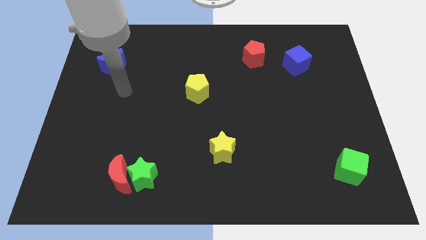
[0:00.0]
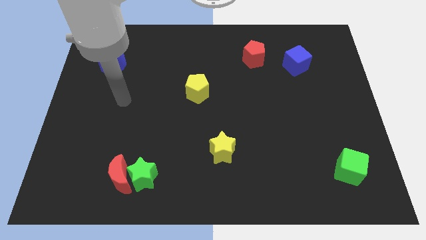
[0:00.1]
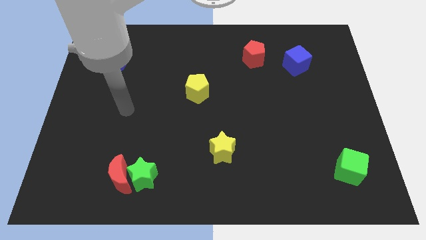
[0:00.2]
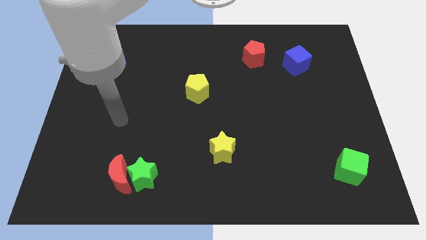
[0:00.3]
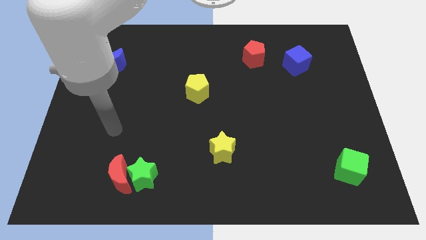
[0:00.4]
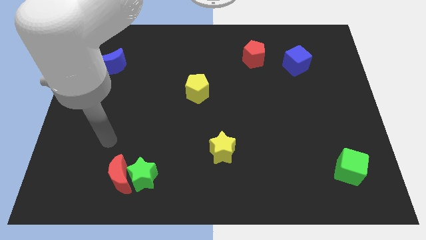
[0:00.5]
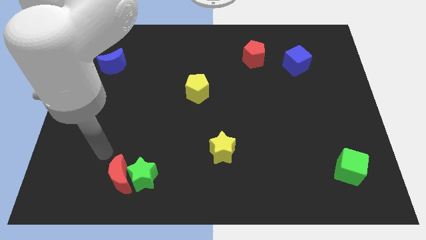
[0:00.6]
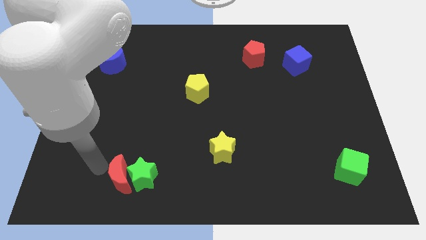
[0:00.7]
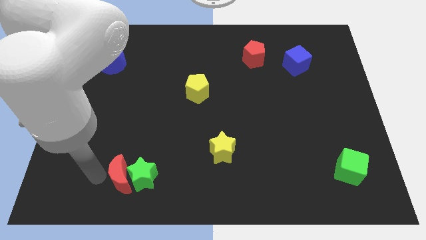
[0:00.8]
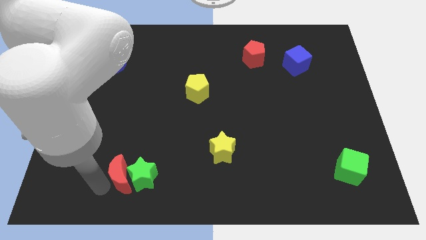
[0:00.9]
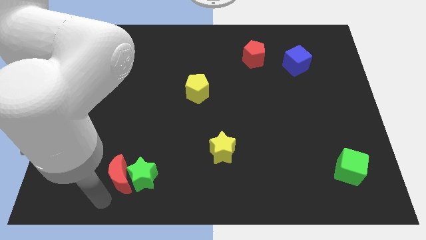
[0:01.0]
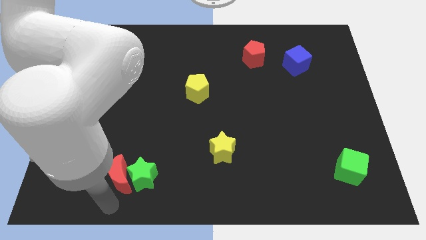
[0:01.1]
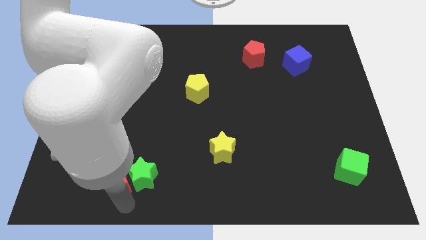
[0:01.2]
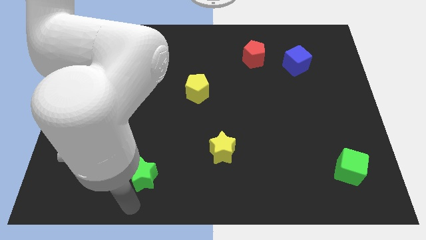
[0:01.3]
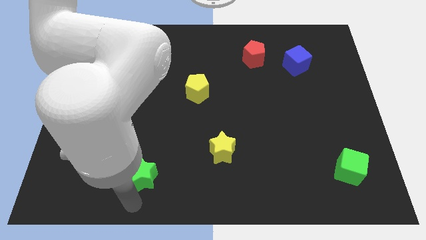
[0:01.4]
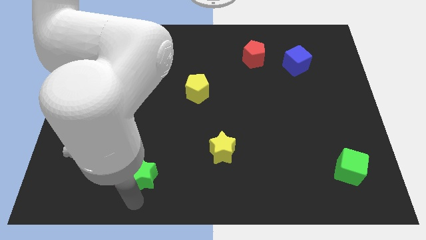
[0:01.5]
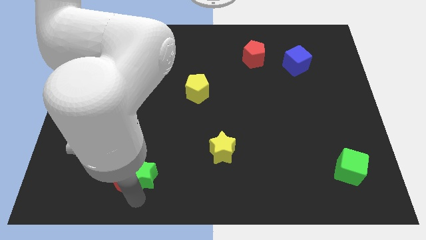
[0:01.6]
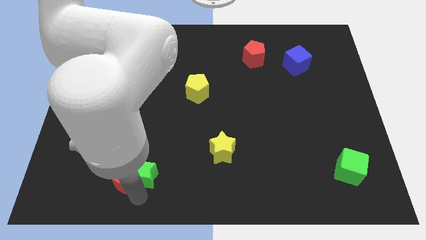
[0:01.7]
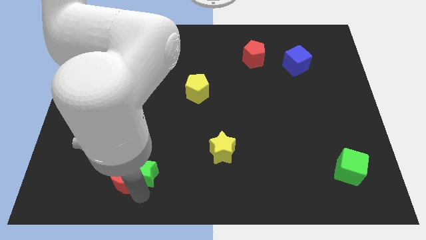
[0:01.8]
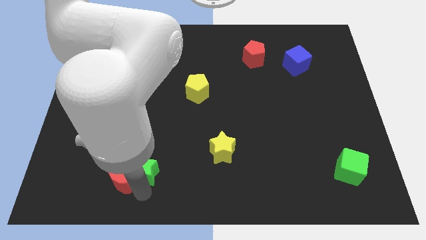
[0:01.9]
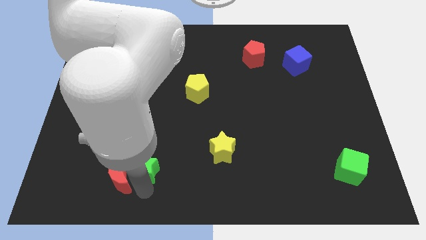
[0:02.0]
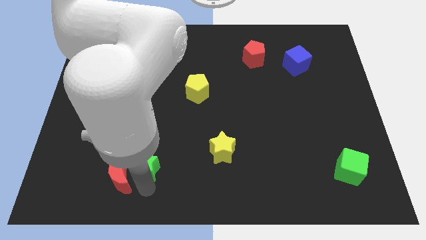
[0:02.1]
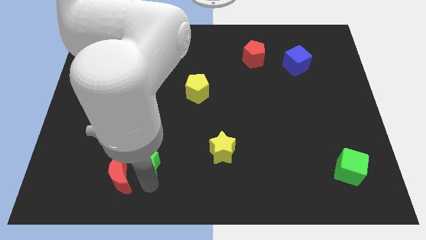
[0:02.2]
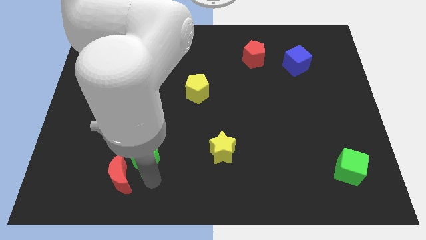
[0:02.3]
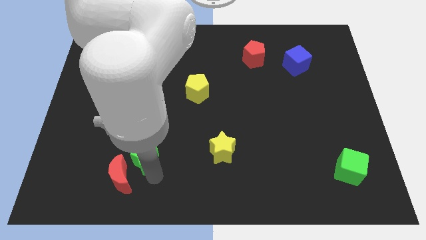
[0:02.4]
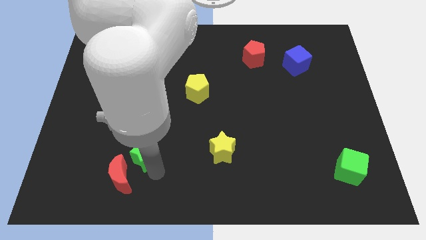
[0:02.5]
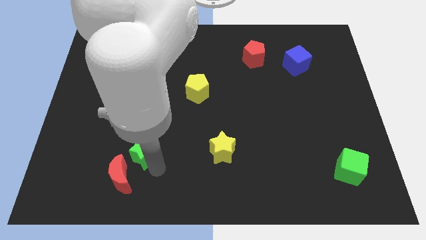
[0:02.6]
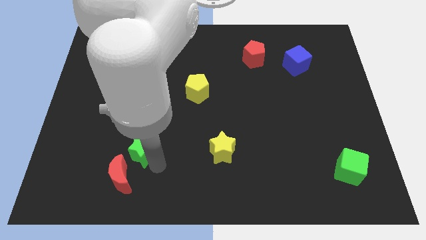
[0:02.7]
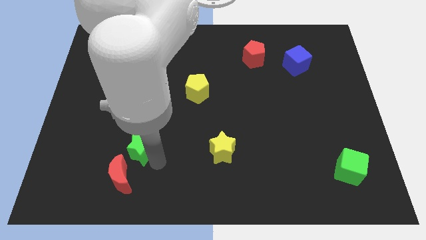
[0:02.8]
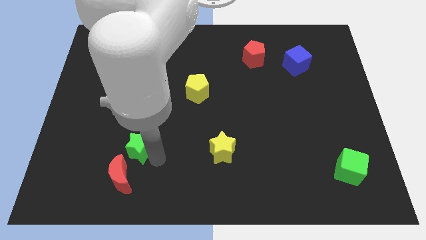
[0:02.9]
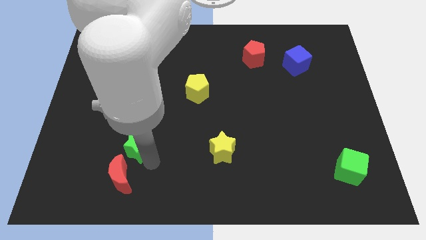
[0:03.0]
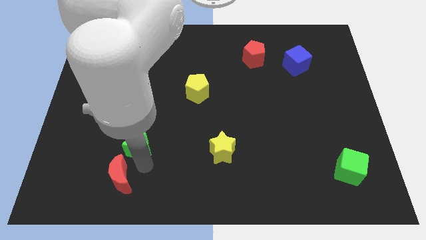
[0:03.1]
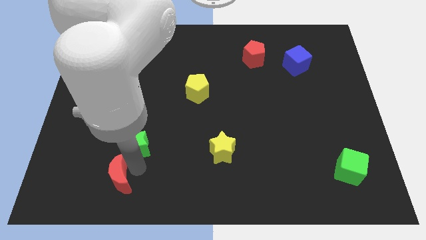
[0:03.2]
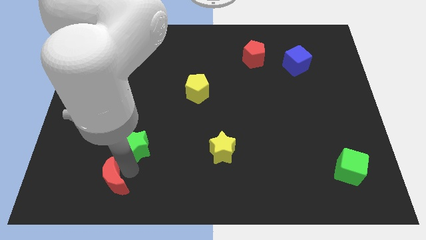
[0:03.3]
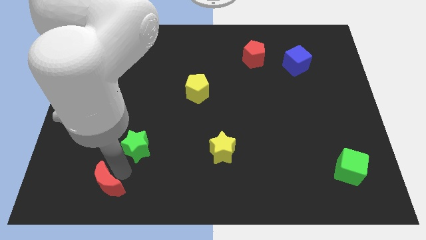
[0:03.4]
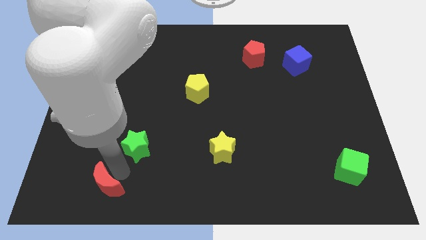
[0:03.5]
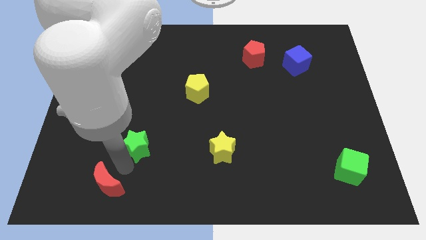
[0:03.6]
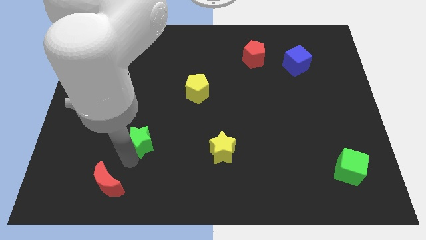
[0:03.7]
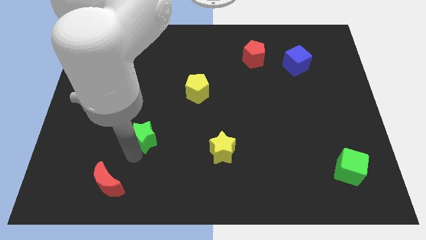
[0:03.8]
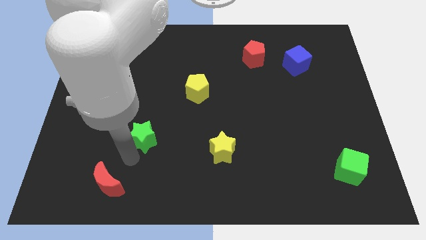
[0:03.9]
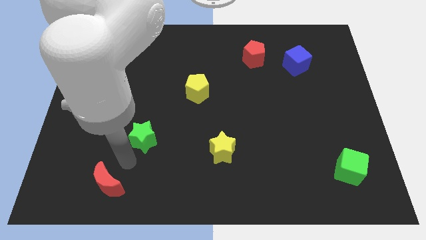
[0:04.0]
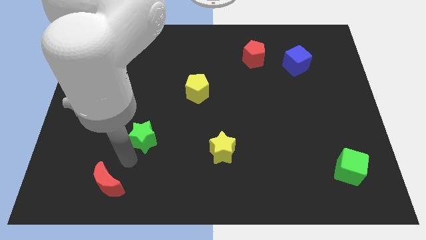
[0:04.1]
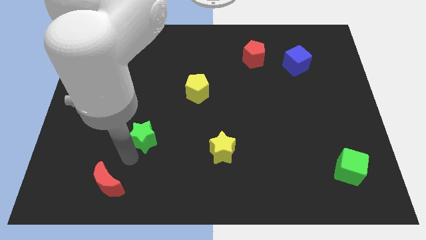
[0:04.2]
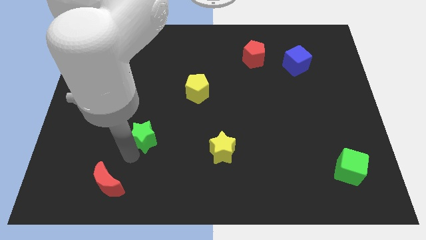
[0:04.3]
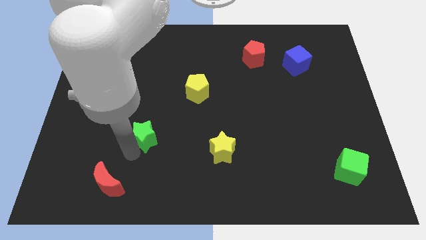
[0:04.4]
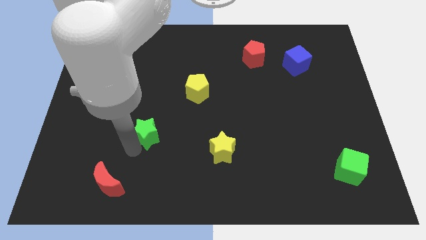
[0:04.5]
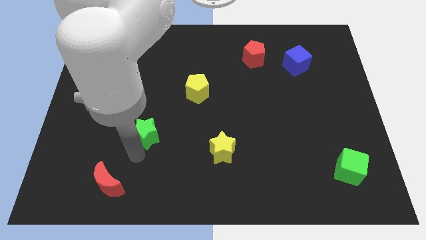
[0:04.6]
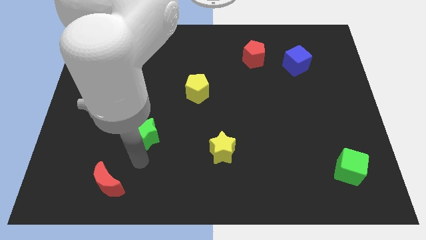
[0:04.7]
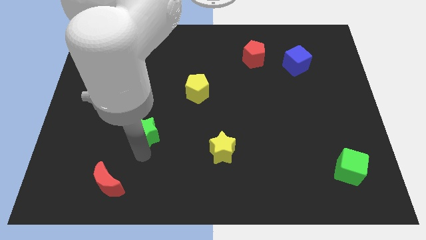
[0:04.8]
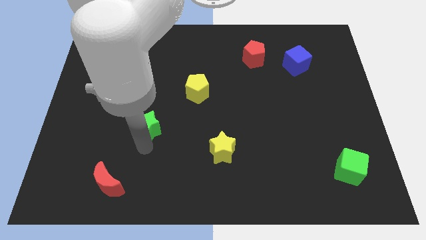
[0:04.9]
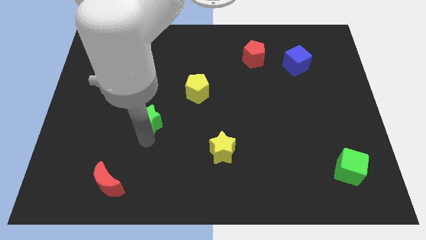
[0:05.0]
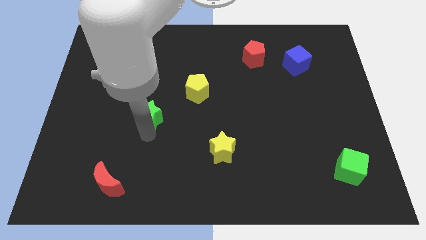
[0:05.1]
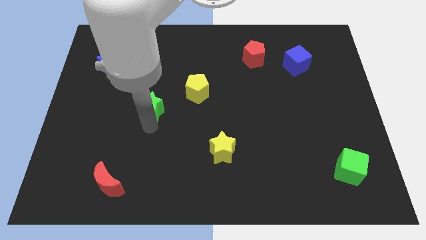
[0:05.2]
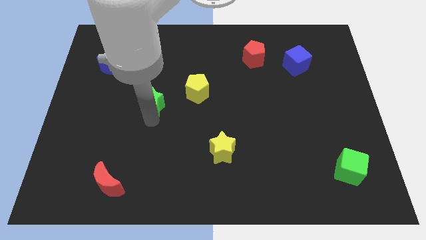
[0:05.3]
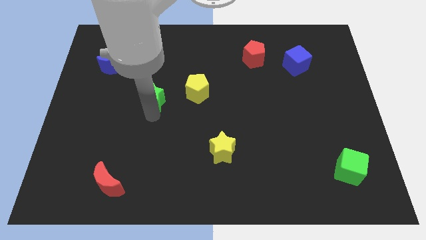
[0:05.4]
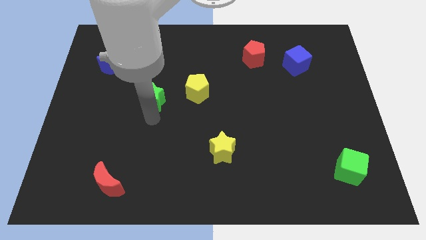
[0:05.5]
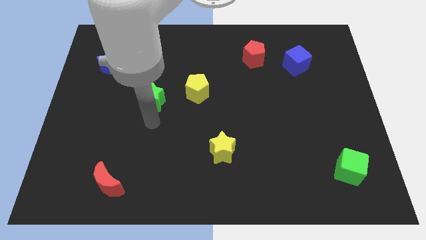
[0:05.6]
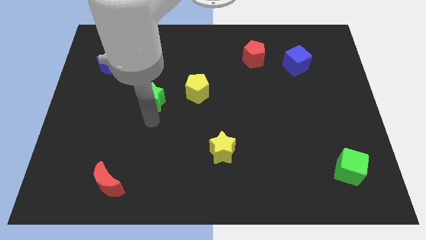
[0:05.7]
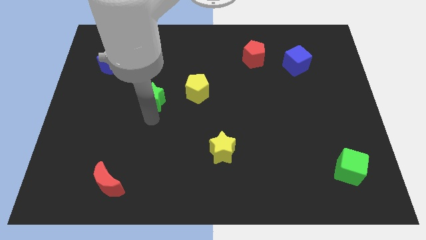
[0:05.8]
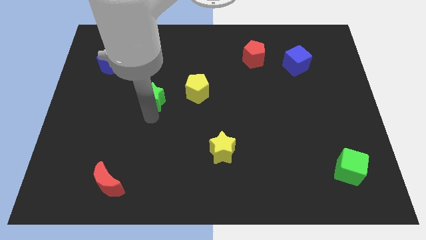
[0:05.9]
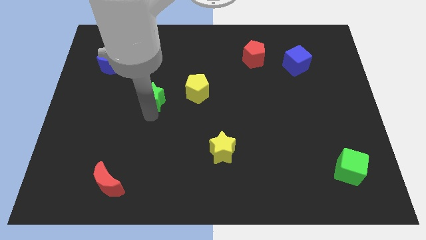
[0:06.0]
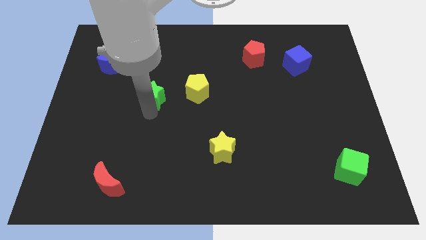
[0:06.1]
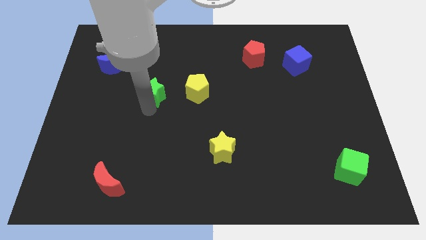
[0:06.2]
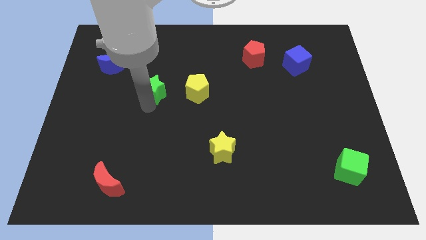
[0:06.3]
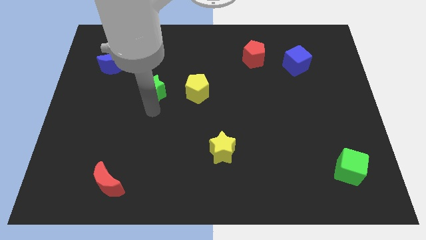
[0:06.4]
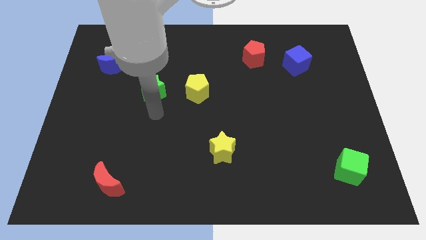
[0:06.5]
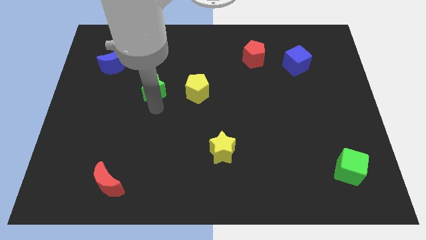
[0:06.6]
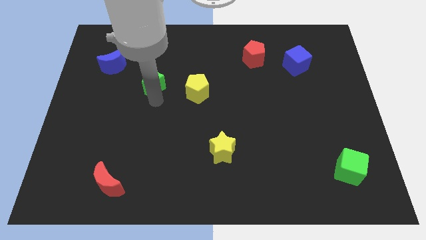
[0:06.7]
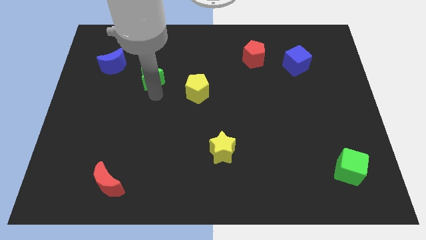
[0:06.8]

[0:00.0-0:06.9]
move the green star just right of the blue moon
